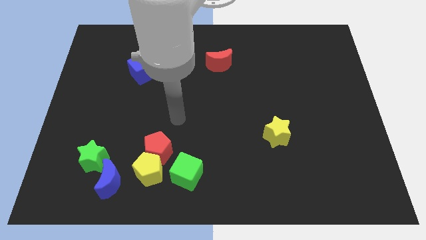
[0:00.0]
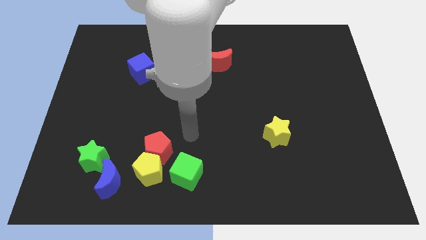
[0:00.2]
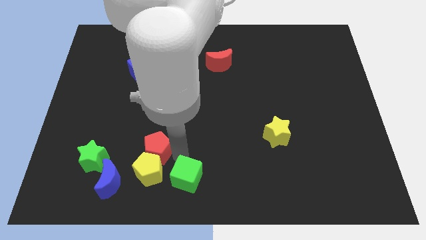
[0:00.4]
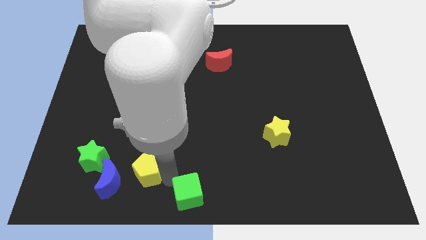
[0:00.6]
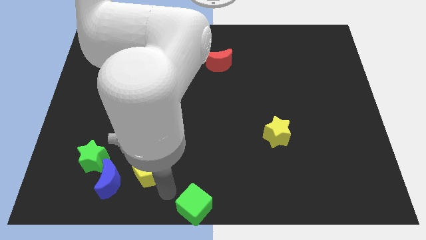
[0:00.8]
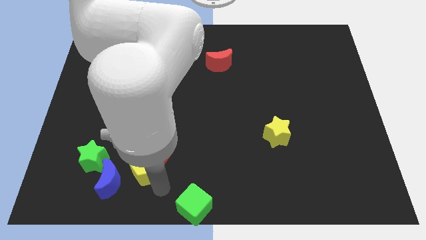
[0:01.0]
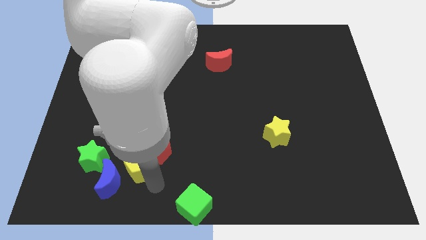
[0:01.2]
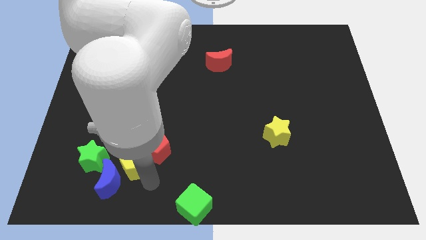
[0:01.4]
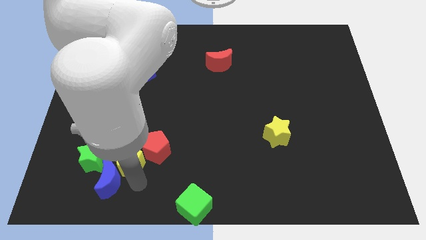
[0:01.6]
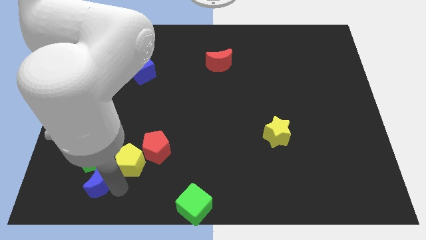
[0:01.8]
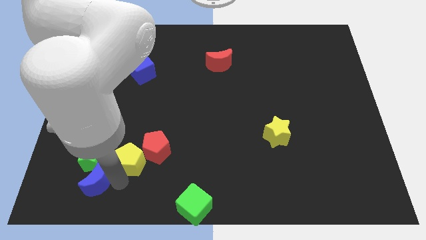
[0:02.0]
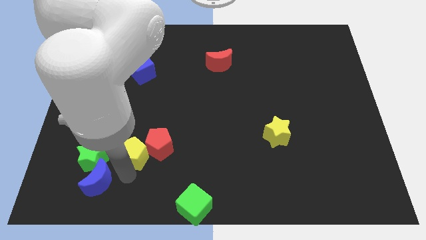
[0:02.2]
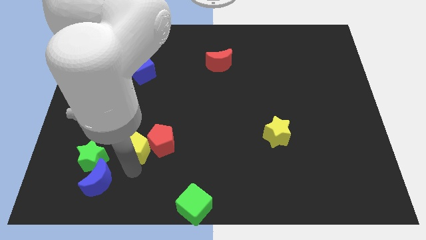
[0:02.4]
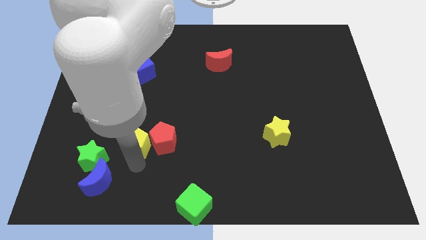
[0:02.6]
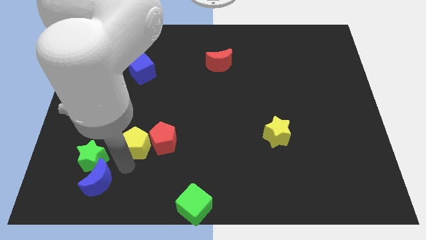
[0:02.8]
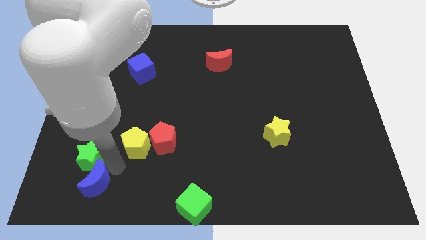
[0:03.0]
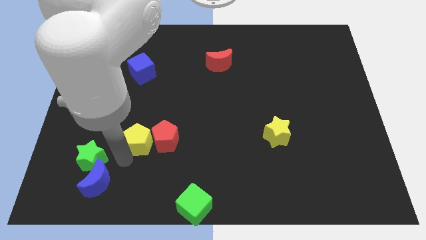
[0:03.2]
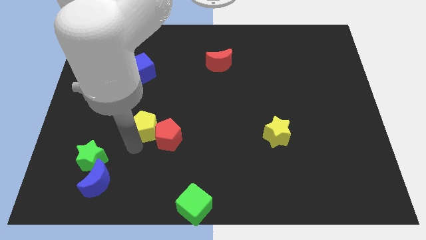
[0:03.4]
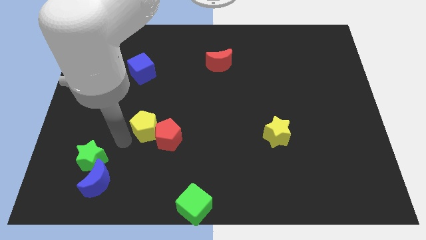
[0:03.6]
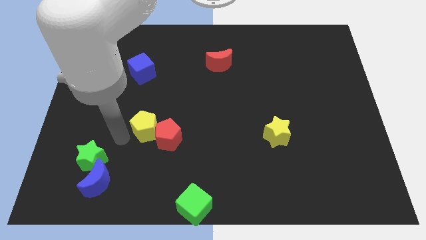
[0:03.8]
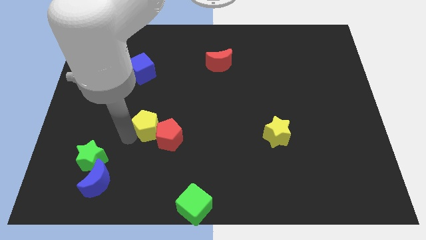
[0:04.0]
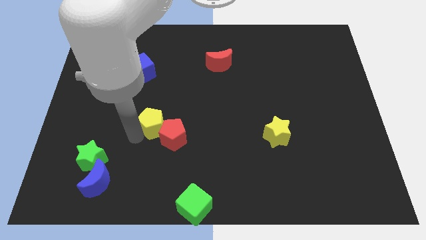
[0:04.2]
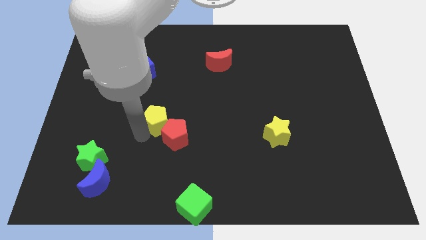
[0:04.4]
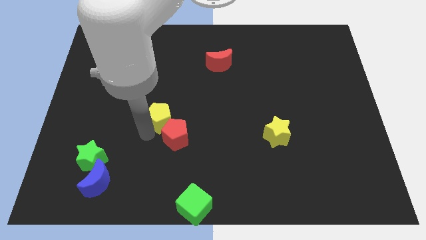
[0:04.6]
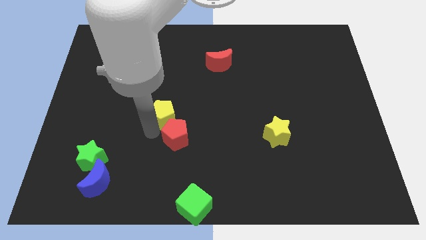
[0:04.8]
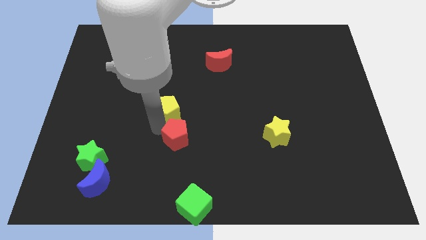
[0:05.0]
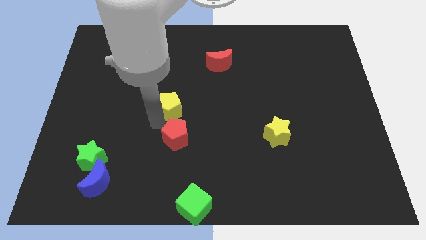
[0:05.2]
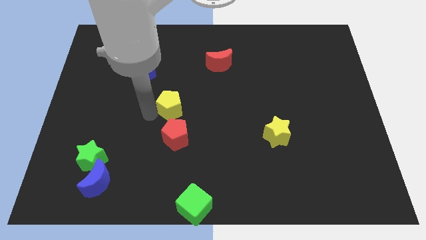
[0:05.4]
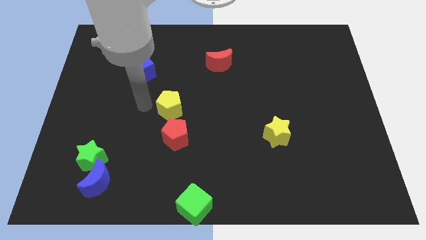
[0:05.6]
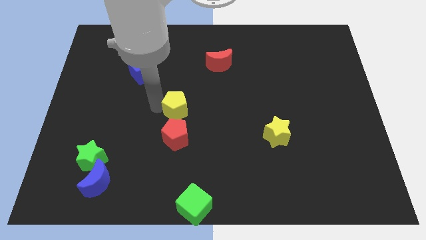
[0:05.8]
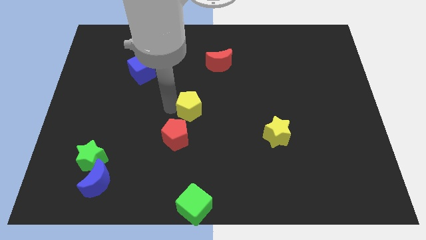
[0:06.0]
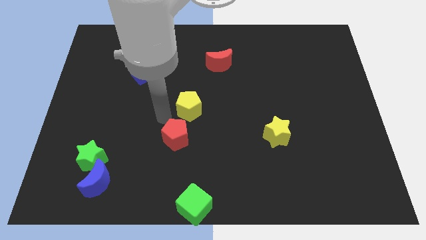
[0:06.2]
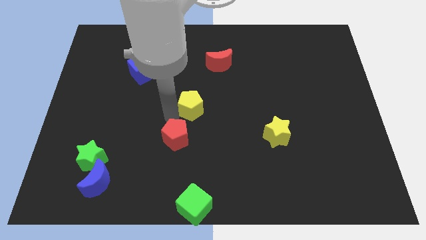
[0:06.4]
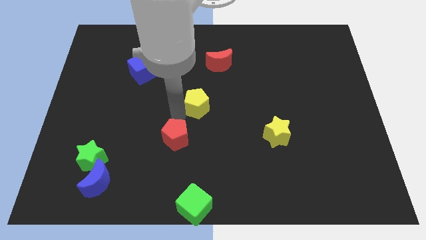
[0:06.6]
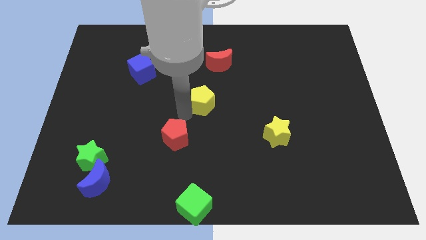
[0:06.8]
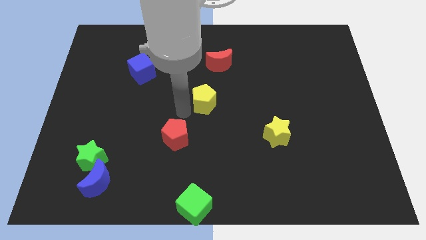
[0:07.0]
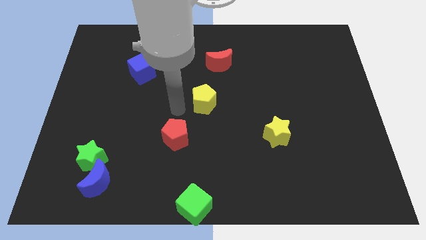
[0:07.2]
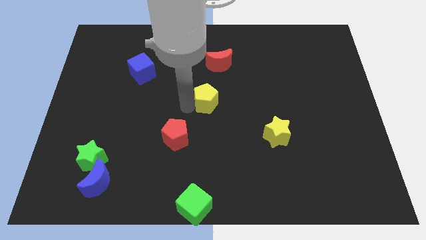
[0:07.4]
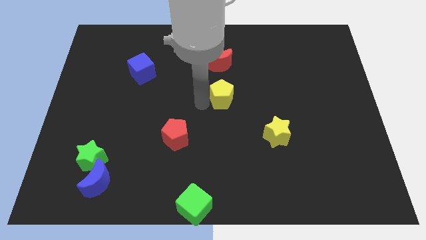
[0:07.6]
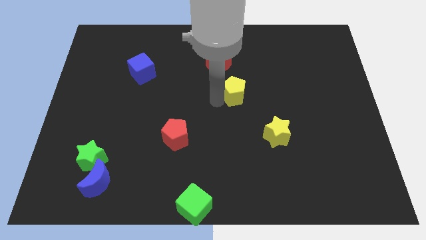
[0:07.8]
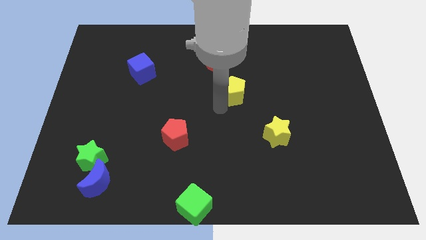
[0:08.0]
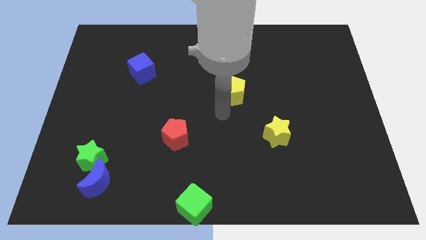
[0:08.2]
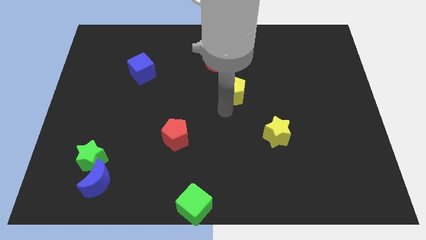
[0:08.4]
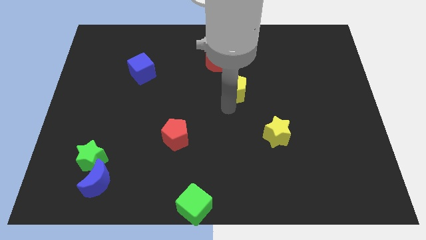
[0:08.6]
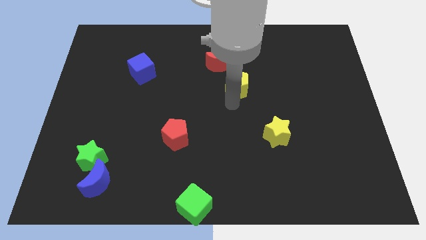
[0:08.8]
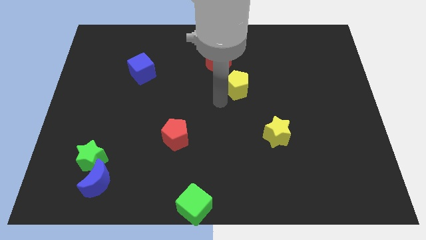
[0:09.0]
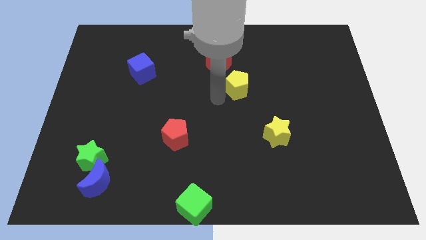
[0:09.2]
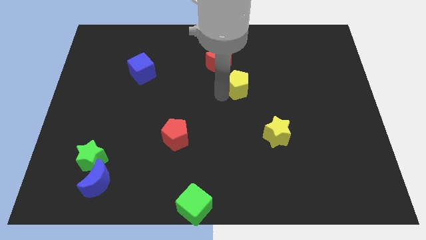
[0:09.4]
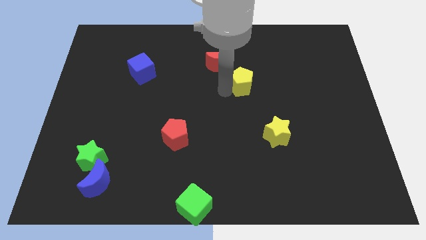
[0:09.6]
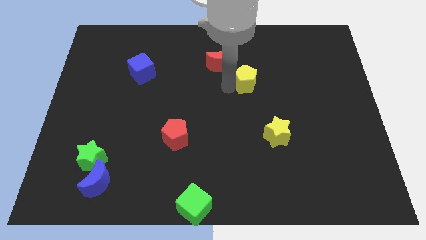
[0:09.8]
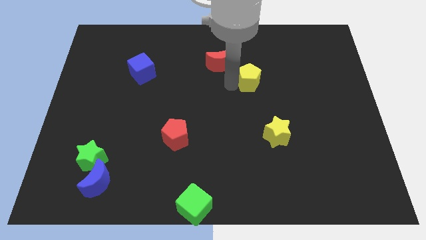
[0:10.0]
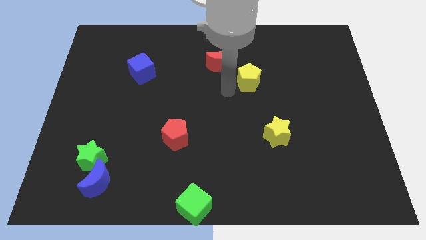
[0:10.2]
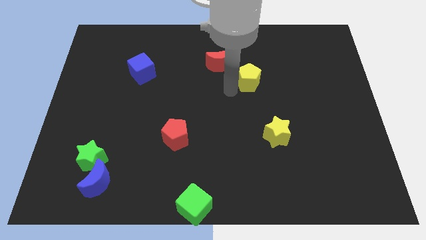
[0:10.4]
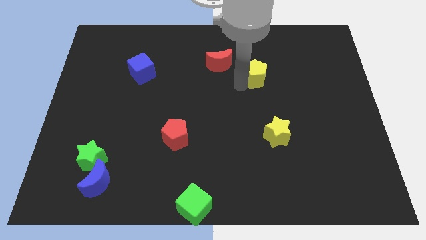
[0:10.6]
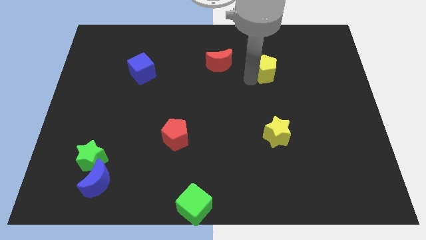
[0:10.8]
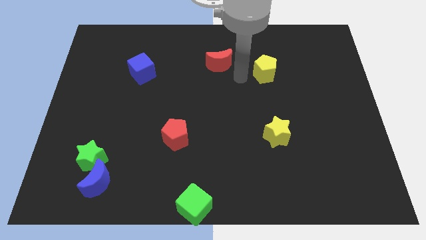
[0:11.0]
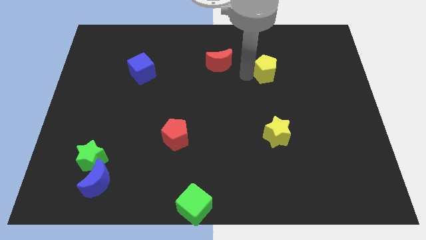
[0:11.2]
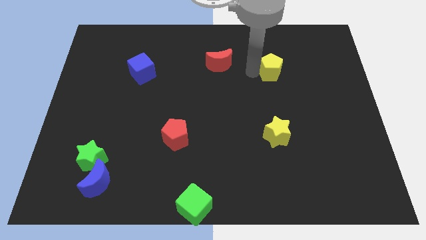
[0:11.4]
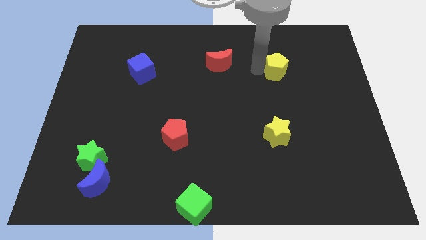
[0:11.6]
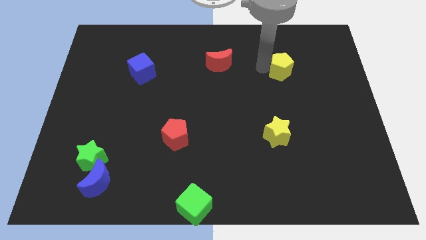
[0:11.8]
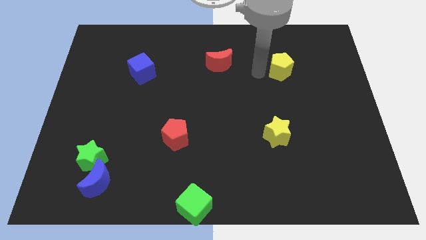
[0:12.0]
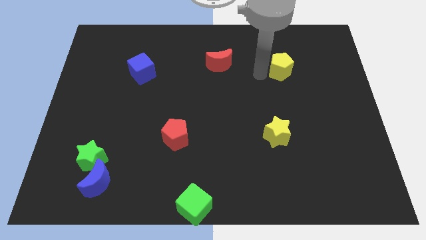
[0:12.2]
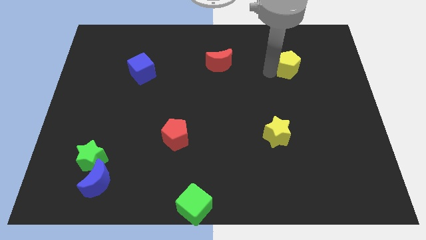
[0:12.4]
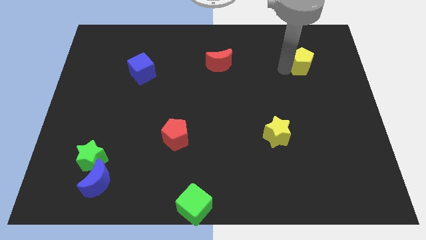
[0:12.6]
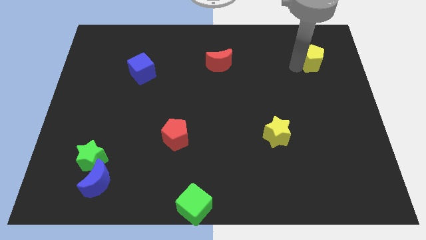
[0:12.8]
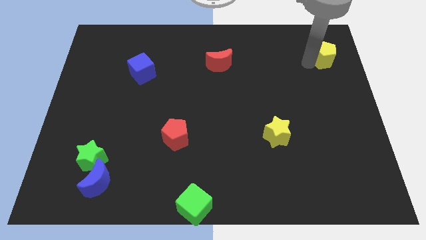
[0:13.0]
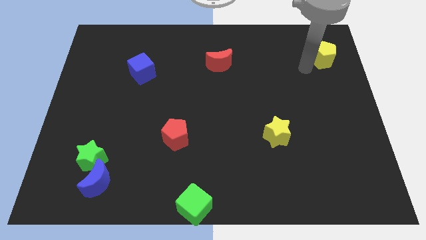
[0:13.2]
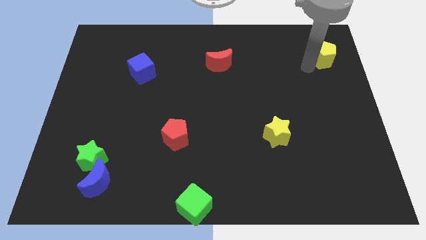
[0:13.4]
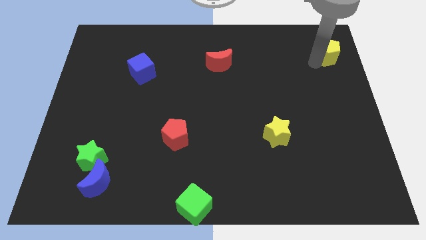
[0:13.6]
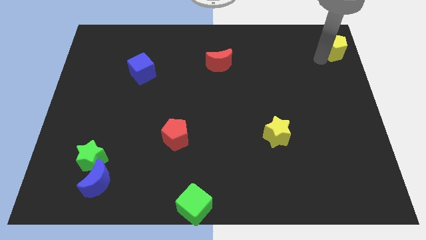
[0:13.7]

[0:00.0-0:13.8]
move the yellow pentagon to the top right
